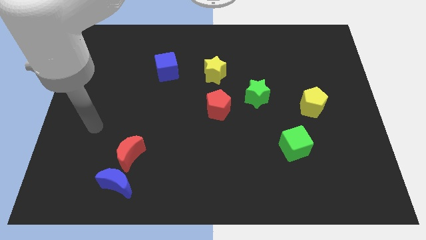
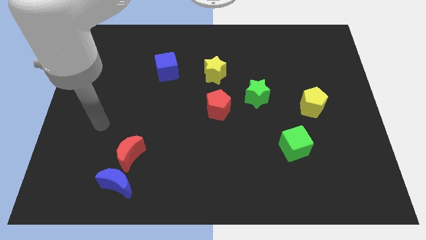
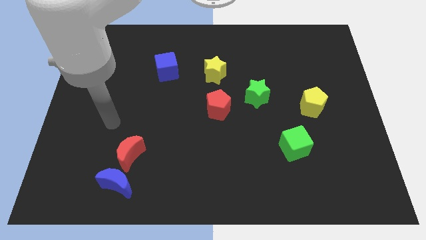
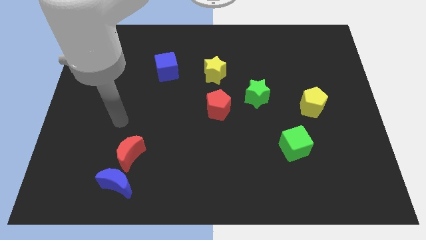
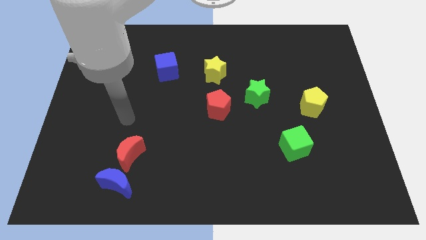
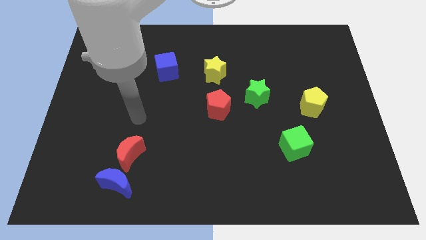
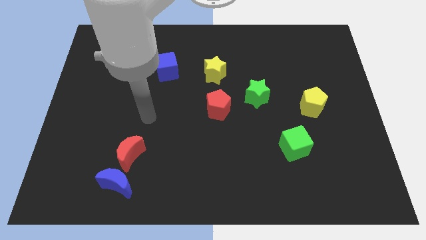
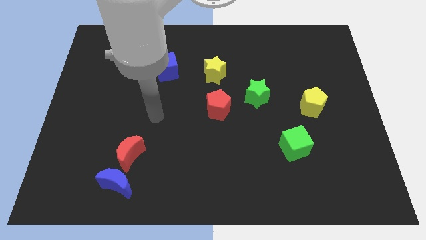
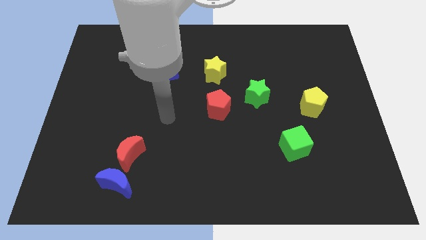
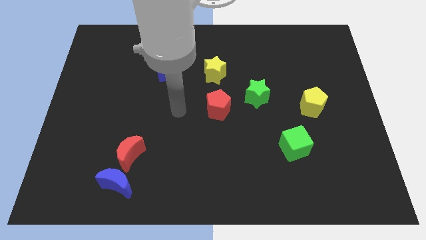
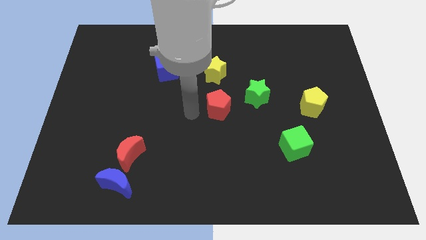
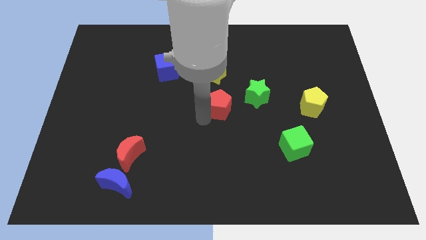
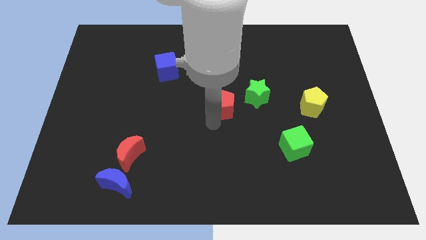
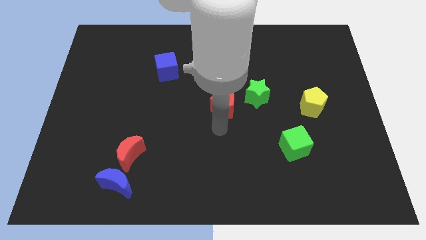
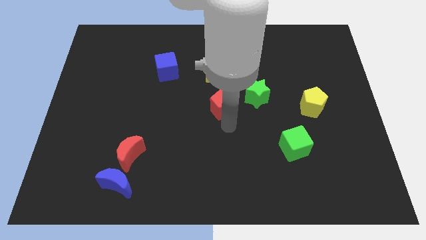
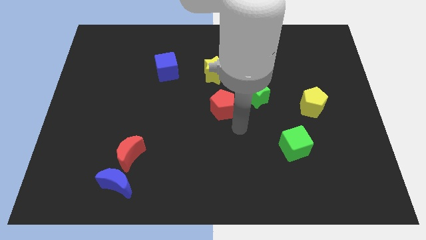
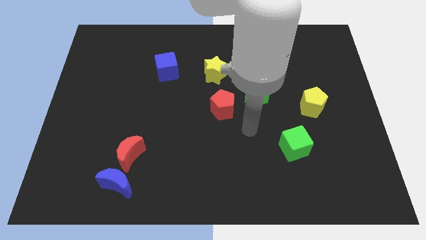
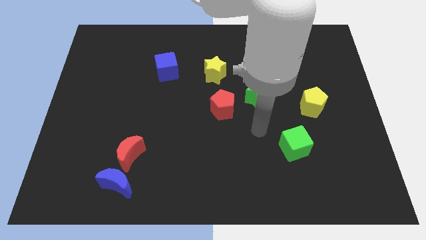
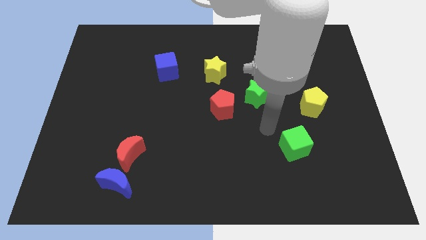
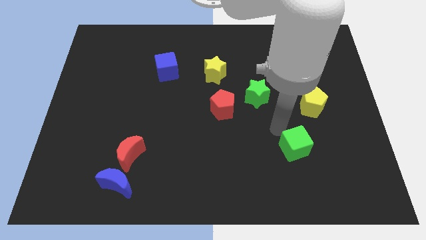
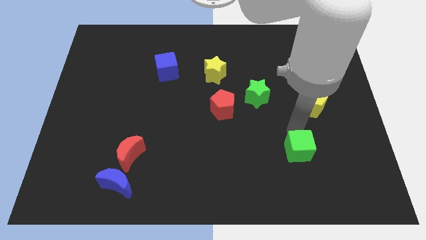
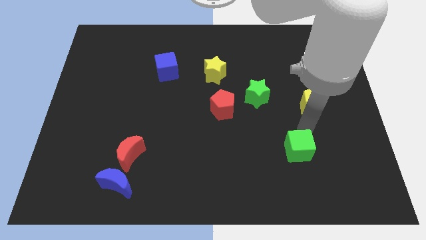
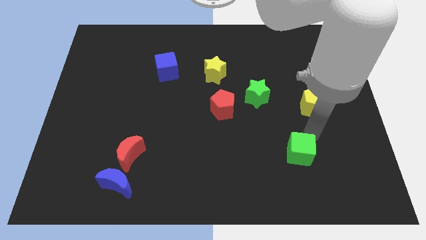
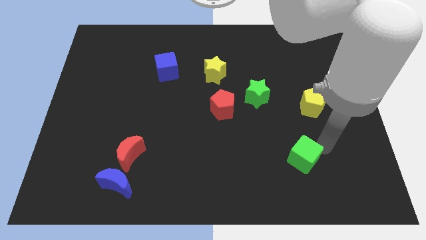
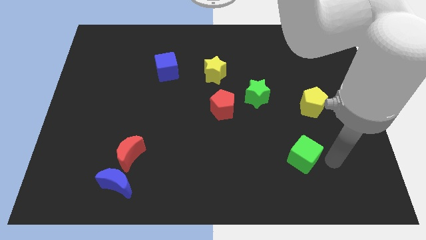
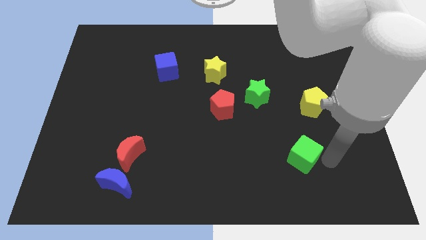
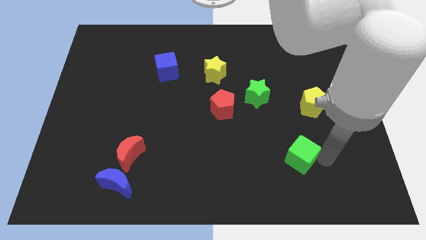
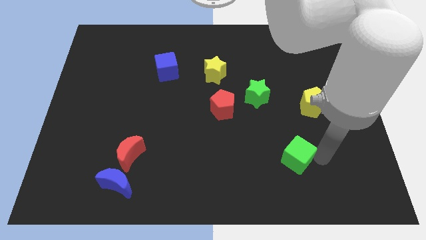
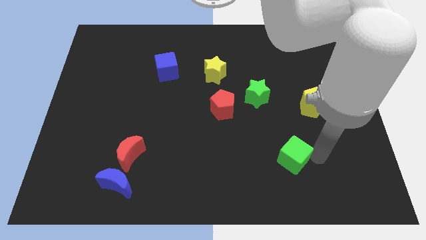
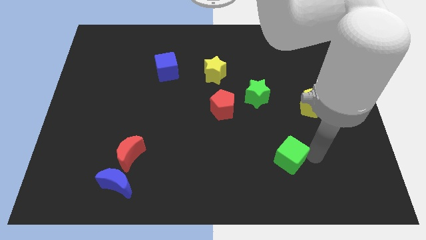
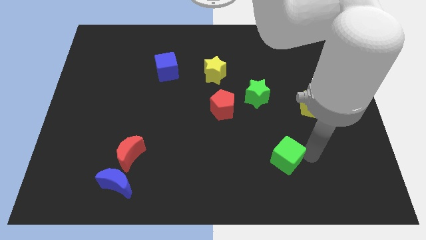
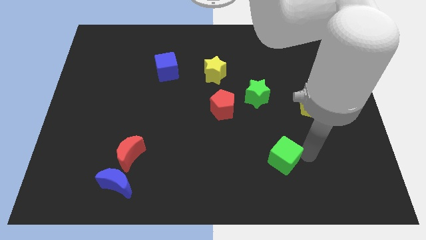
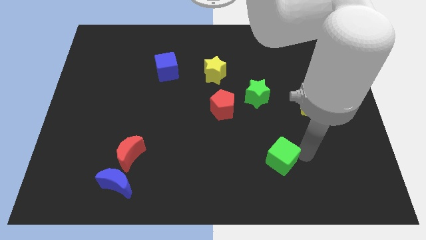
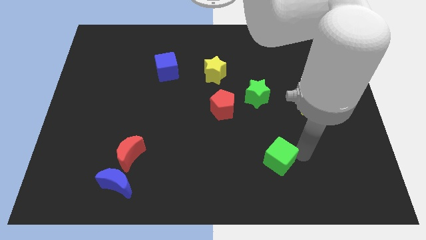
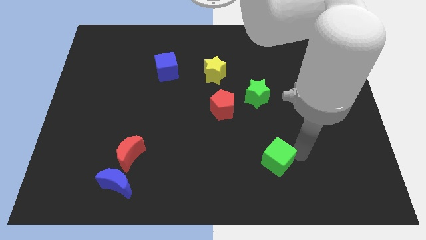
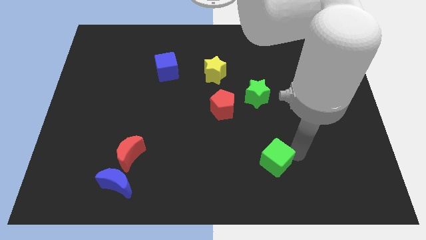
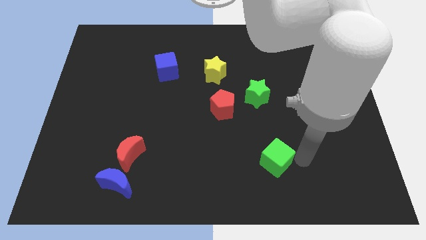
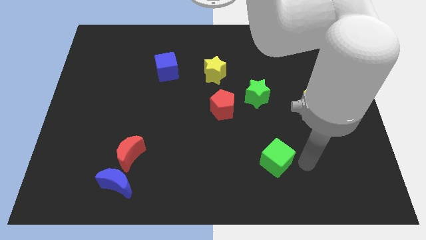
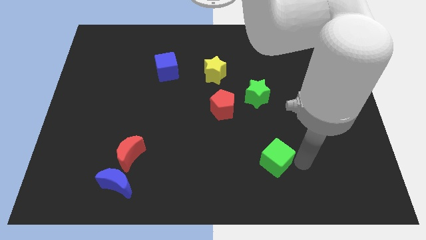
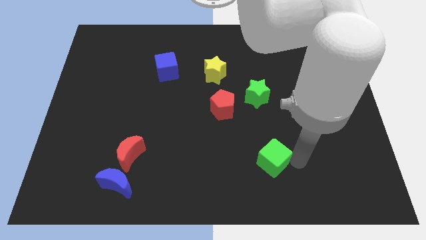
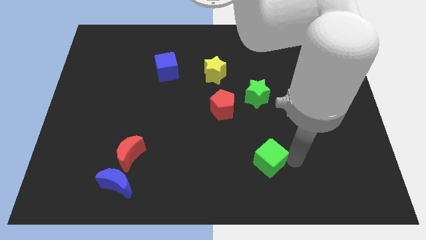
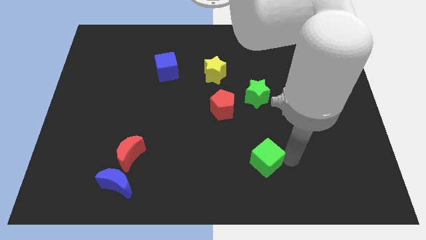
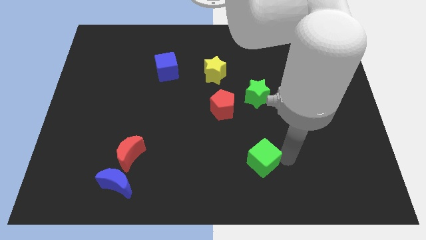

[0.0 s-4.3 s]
push the green cube a little to the left

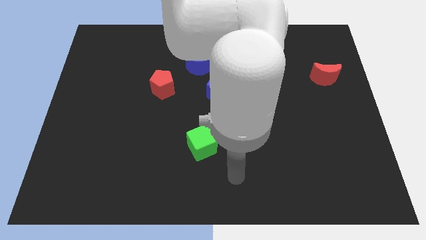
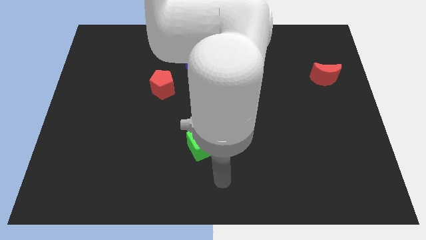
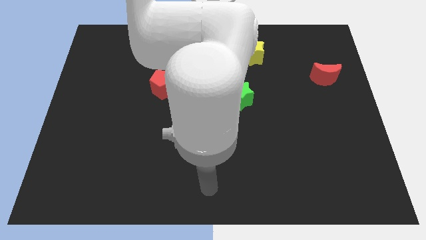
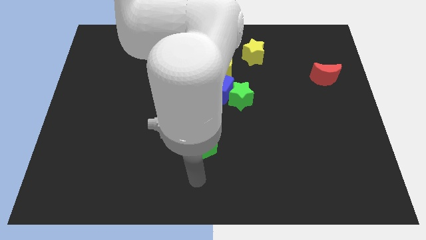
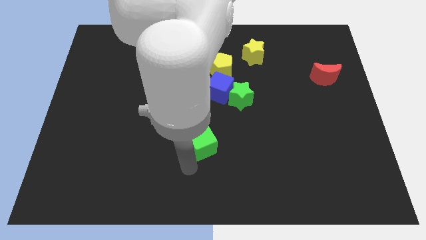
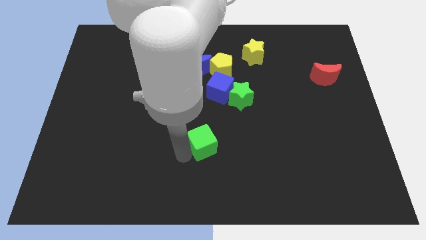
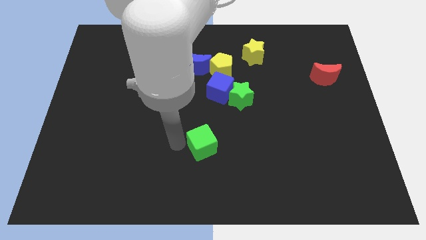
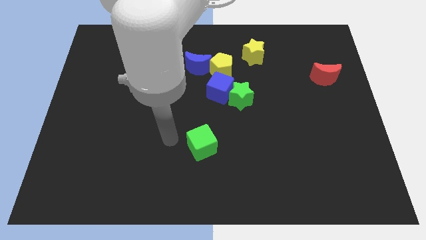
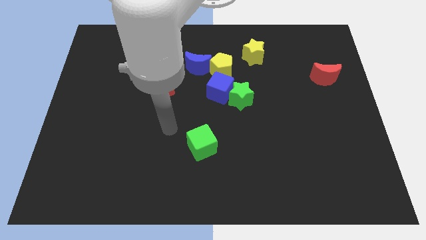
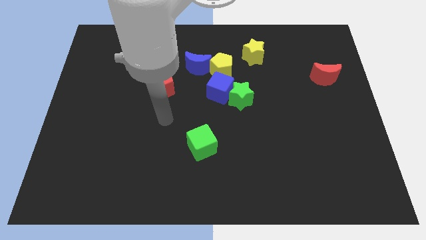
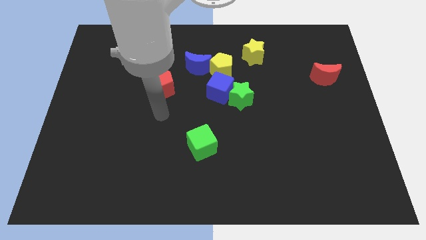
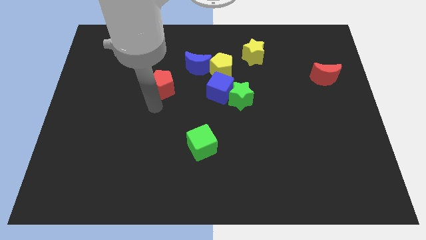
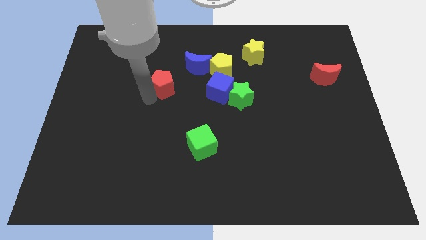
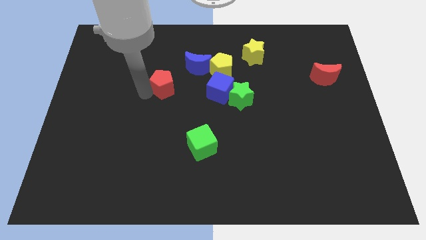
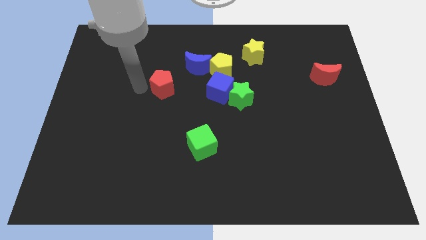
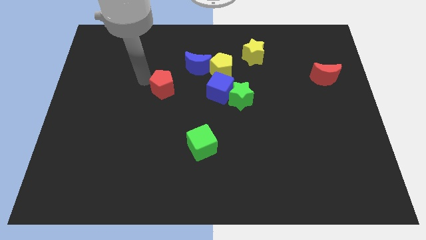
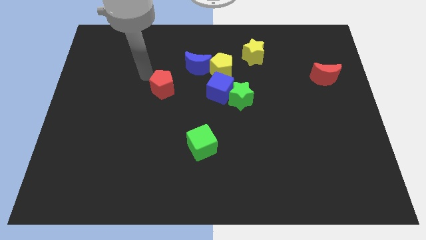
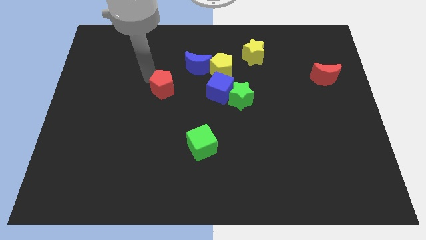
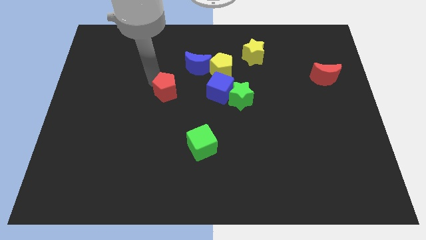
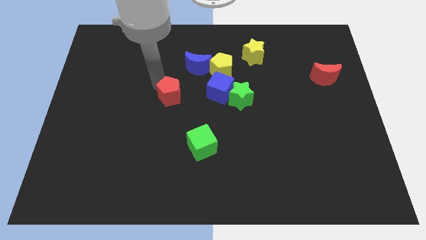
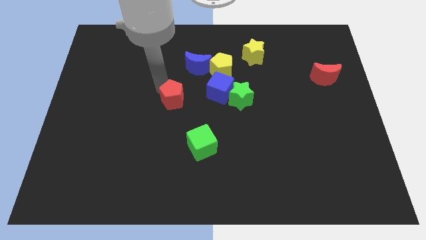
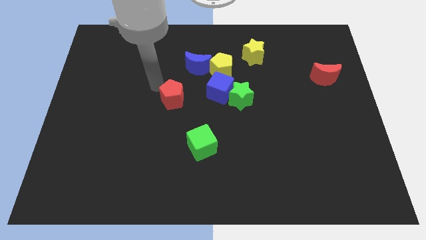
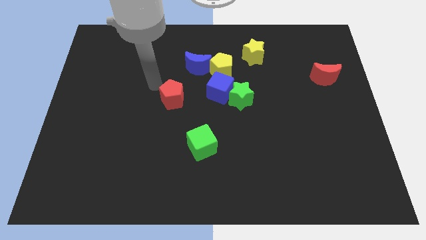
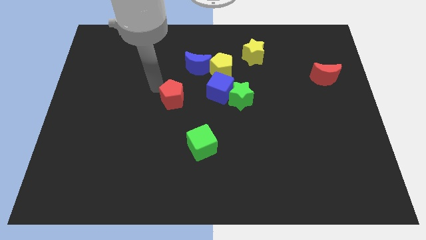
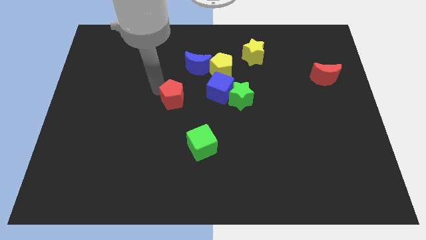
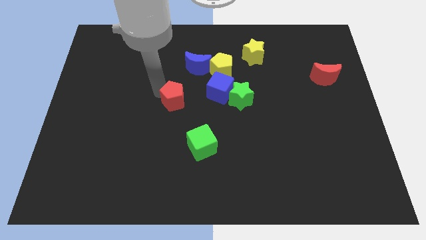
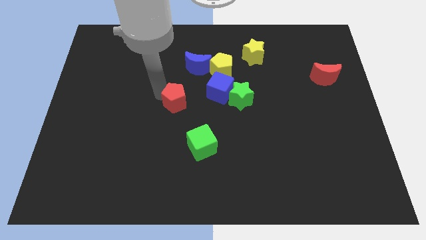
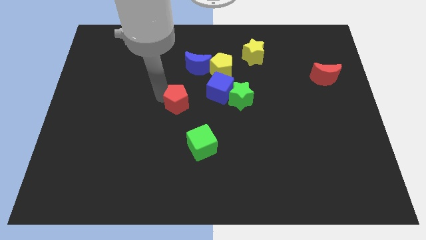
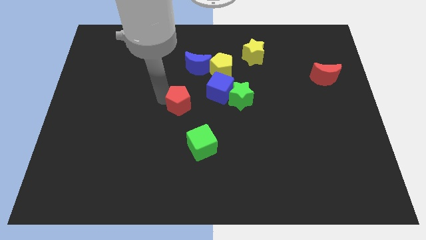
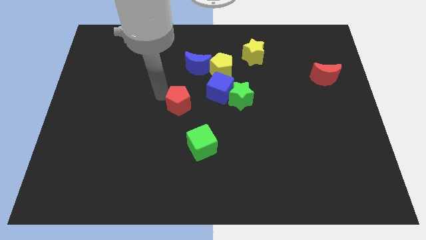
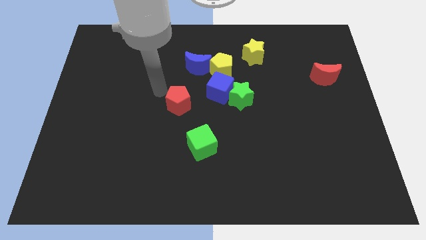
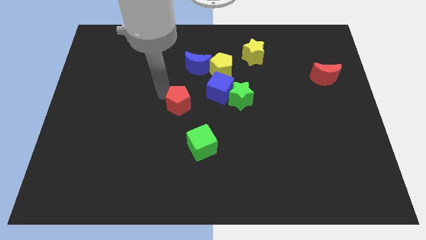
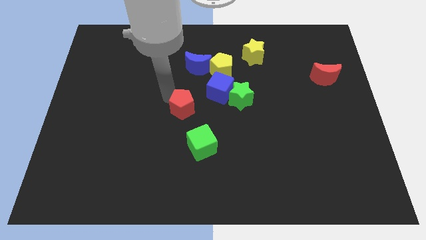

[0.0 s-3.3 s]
slide the red pentagon somewhat down and right diagonally
